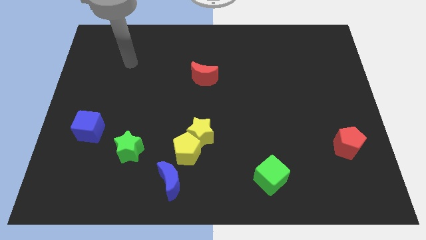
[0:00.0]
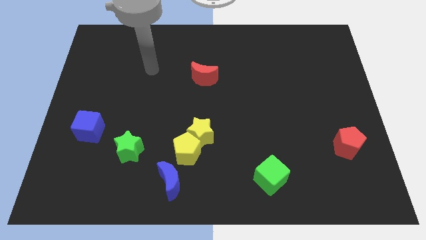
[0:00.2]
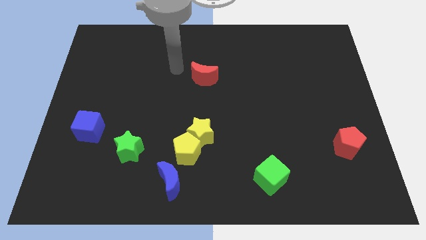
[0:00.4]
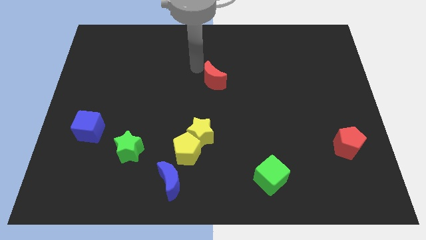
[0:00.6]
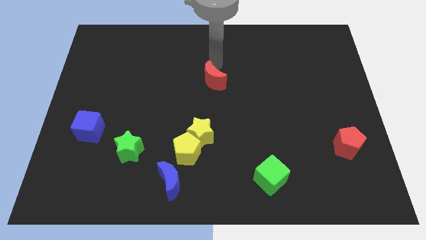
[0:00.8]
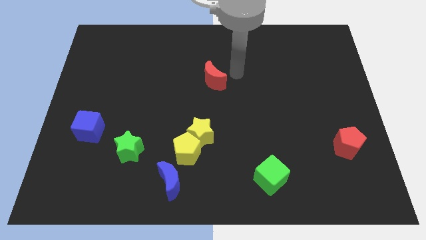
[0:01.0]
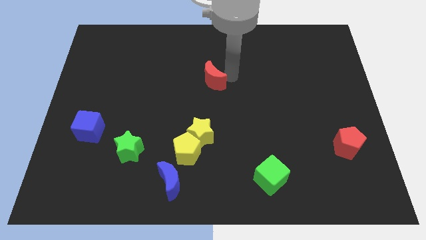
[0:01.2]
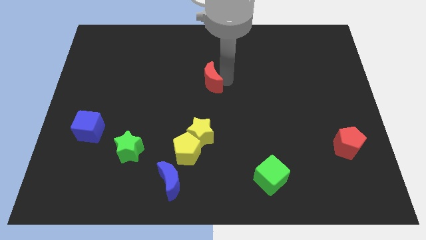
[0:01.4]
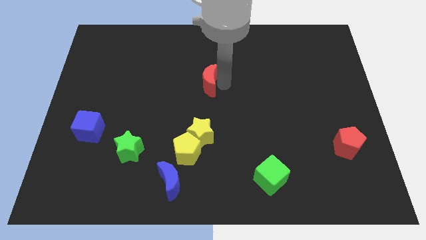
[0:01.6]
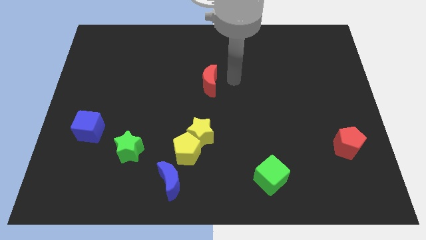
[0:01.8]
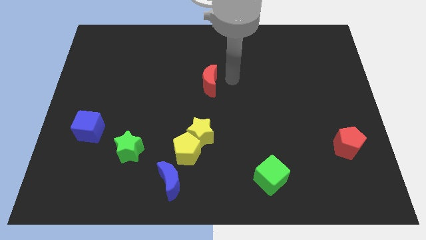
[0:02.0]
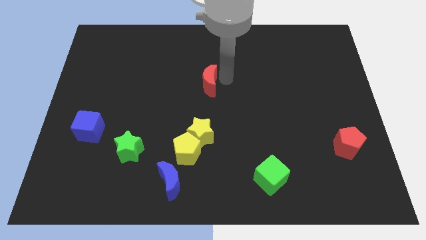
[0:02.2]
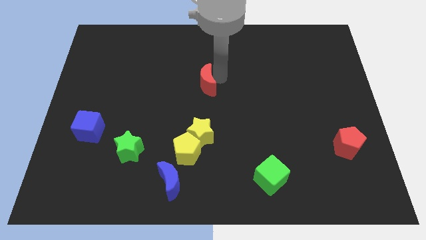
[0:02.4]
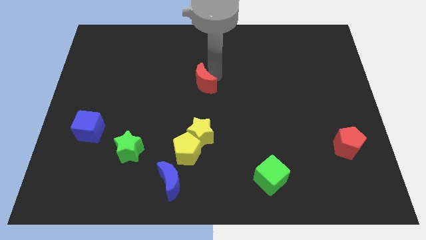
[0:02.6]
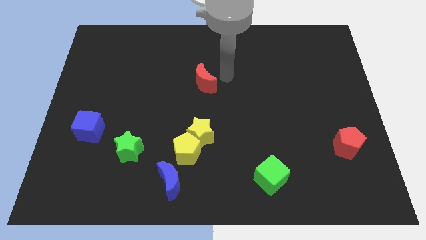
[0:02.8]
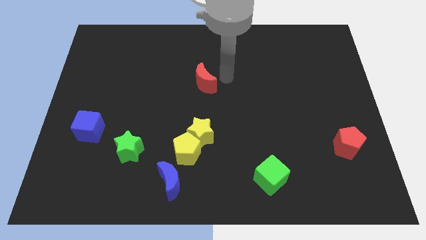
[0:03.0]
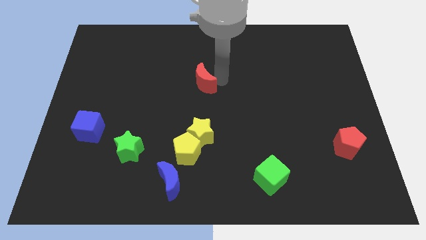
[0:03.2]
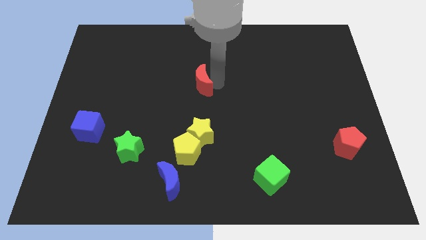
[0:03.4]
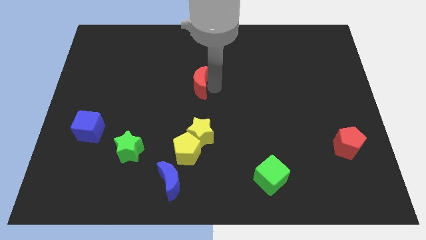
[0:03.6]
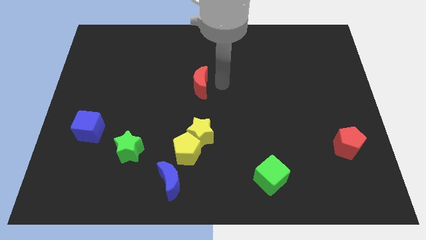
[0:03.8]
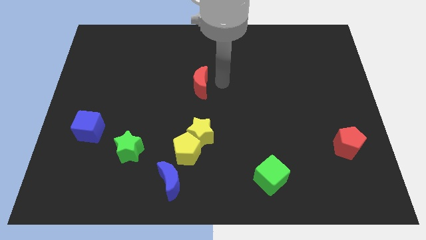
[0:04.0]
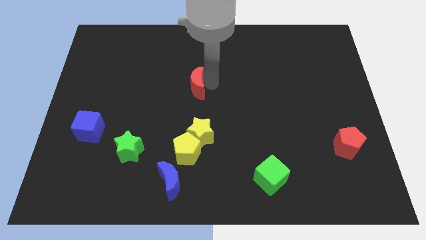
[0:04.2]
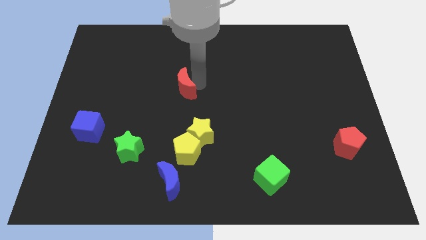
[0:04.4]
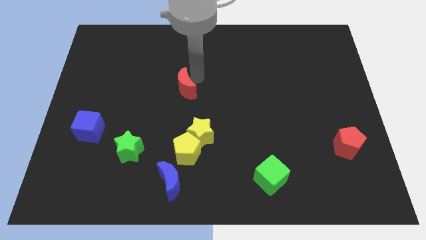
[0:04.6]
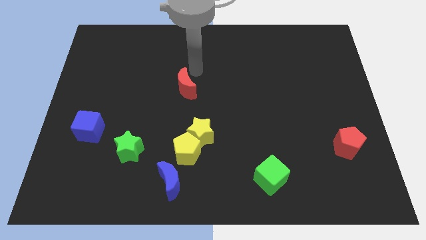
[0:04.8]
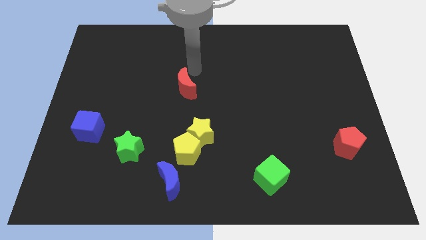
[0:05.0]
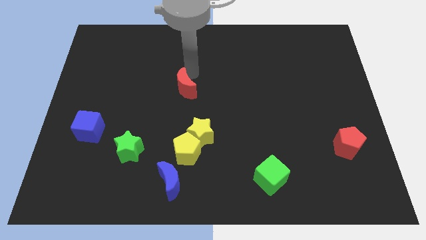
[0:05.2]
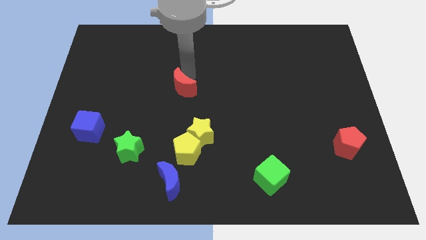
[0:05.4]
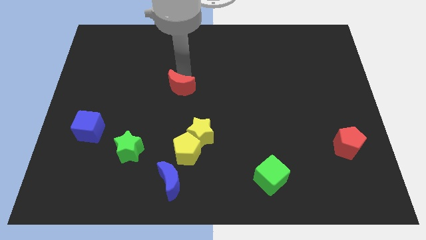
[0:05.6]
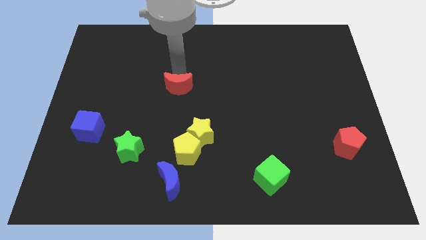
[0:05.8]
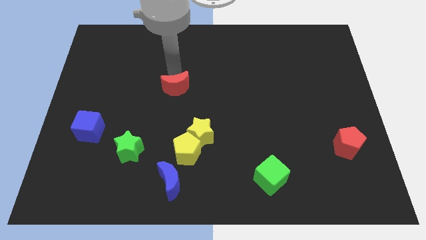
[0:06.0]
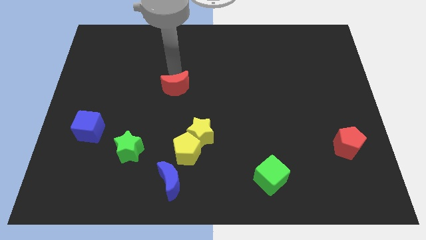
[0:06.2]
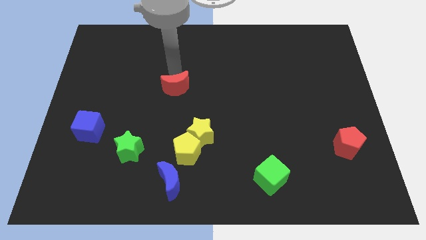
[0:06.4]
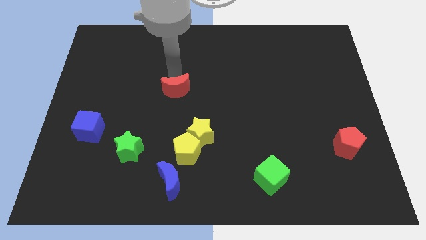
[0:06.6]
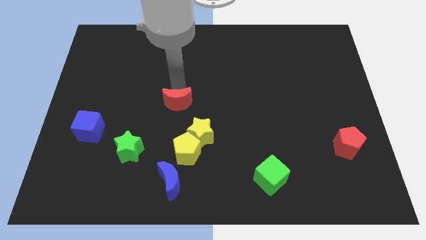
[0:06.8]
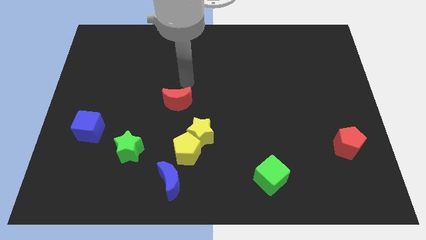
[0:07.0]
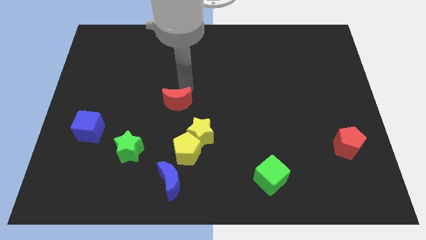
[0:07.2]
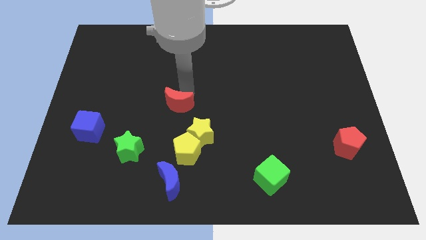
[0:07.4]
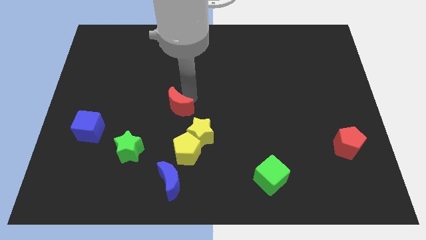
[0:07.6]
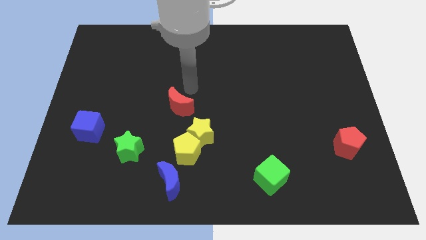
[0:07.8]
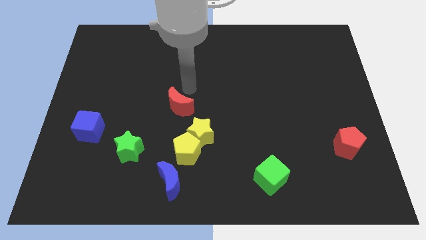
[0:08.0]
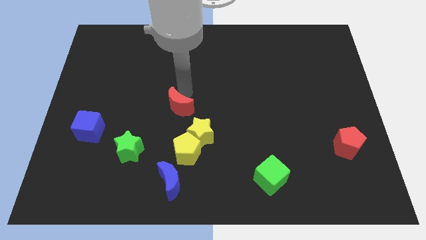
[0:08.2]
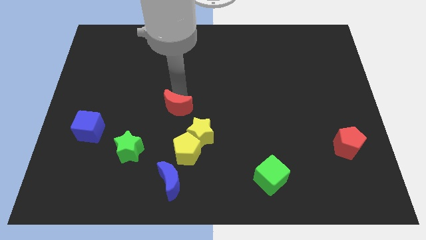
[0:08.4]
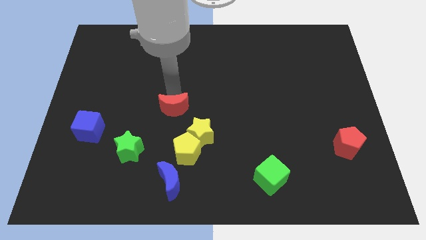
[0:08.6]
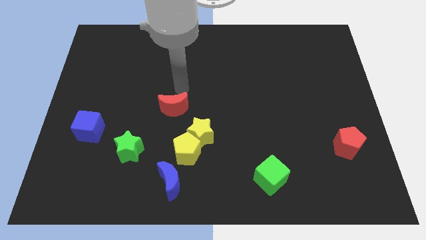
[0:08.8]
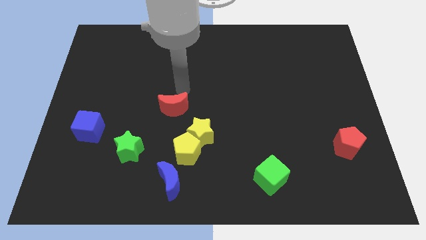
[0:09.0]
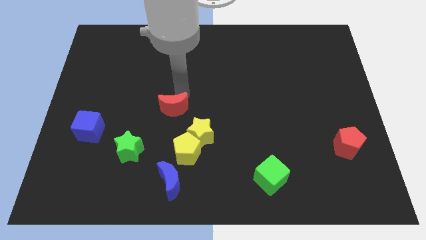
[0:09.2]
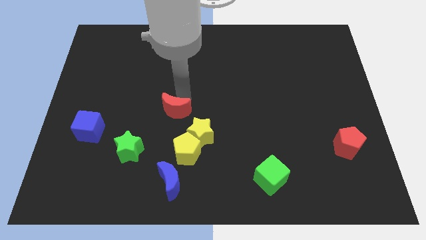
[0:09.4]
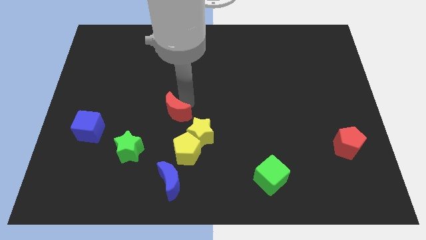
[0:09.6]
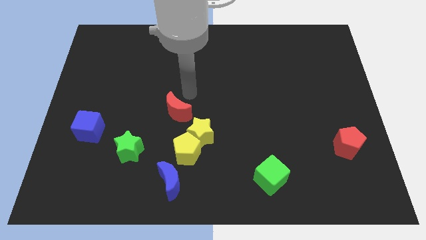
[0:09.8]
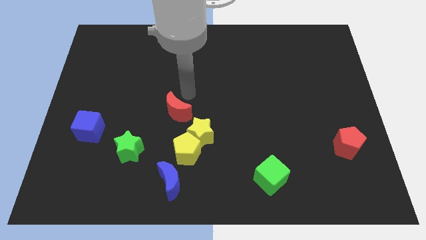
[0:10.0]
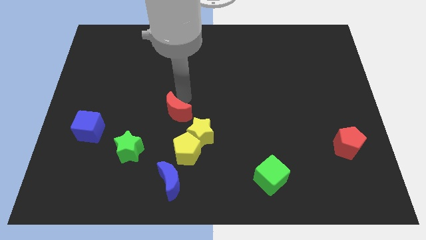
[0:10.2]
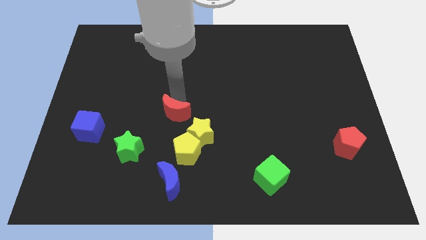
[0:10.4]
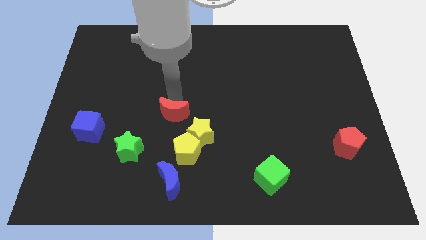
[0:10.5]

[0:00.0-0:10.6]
slide the red moon diagonally up and to the left of the yellow pentagon

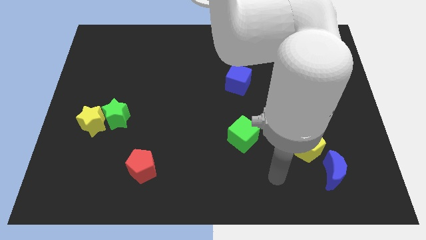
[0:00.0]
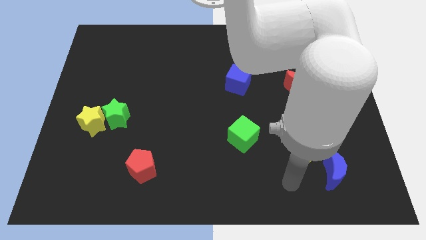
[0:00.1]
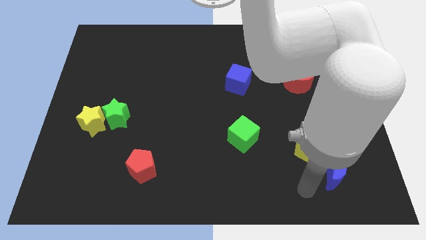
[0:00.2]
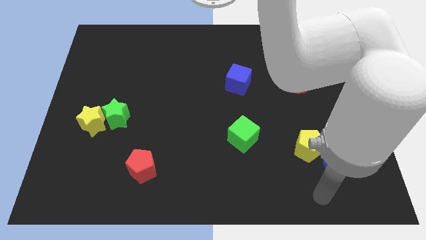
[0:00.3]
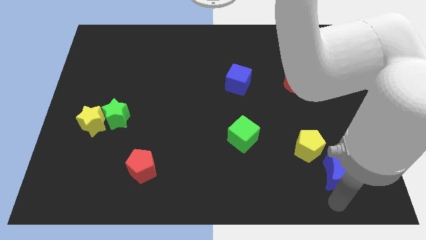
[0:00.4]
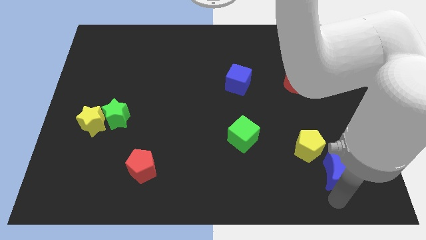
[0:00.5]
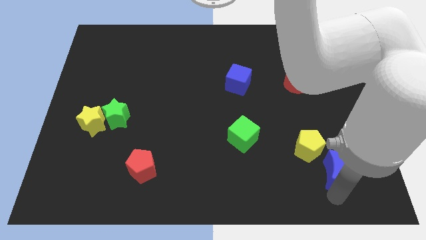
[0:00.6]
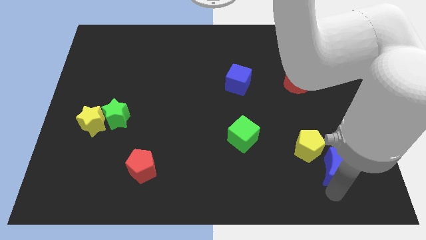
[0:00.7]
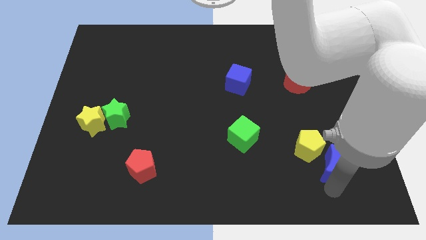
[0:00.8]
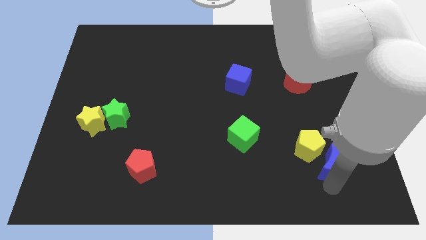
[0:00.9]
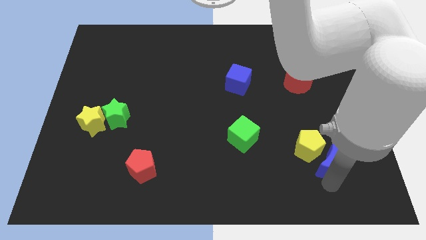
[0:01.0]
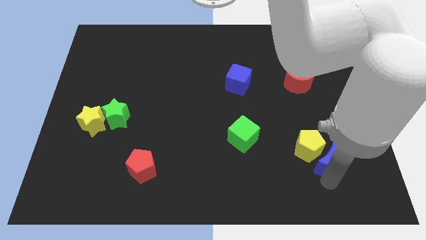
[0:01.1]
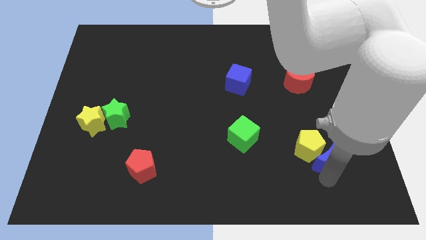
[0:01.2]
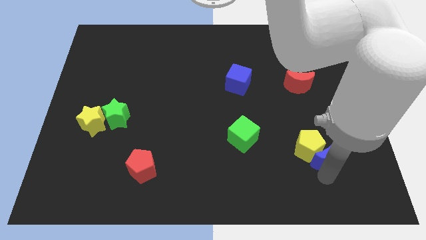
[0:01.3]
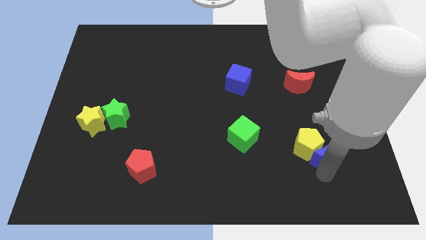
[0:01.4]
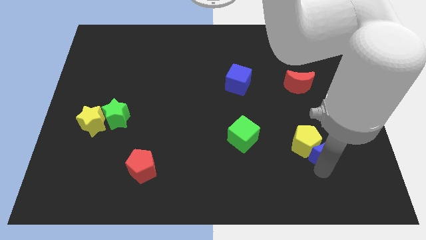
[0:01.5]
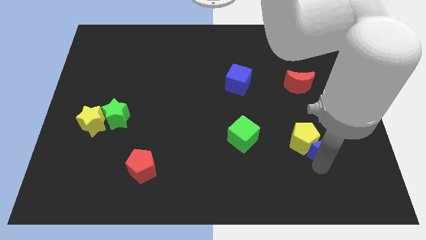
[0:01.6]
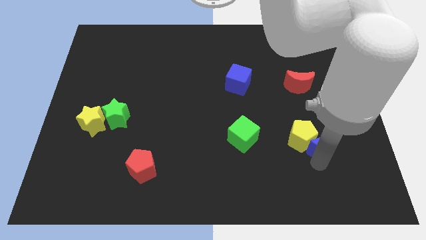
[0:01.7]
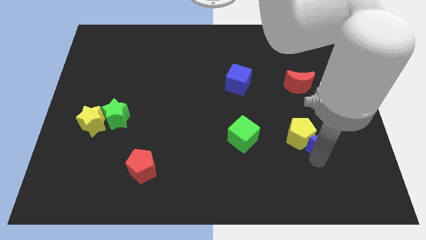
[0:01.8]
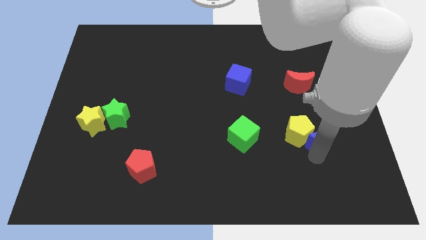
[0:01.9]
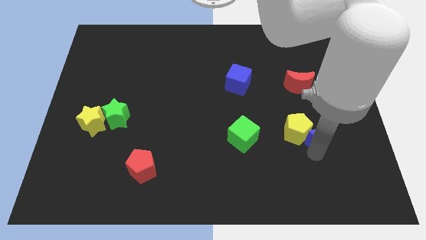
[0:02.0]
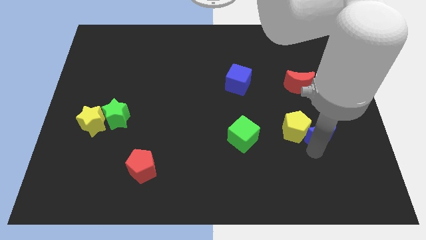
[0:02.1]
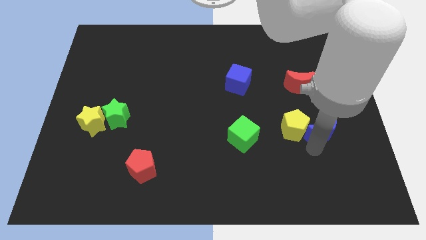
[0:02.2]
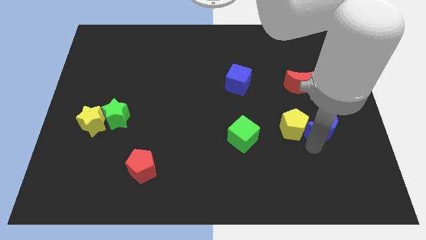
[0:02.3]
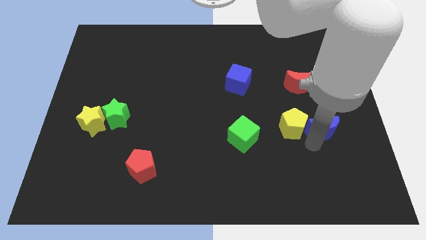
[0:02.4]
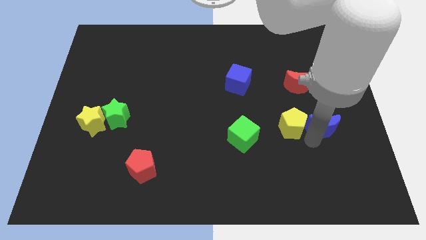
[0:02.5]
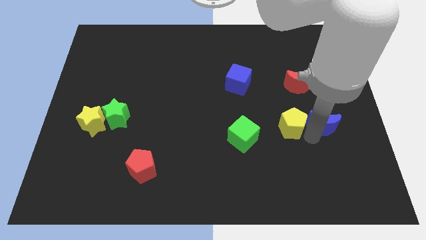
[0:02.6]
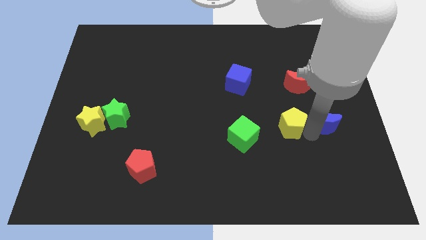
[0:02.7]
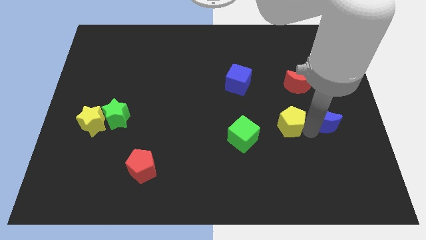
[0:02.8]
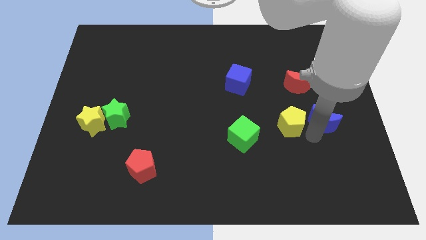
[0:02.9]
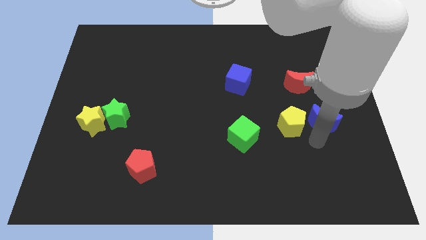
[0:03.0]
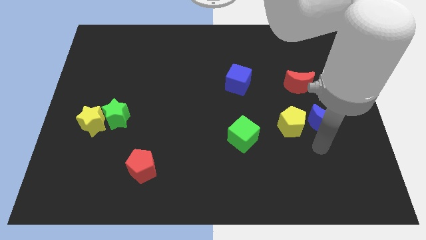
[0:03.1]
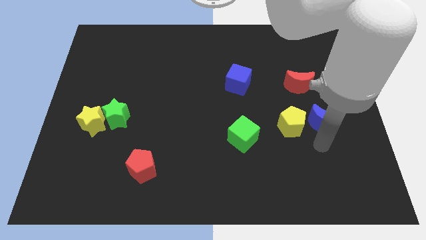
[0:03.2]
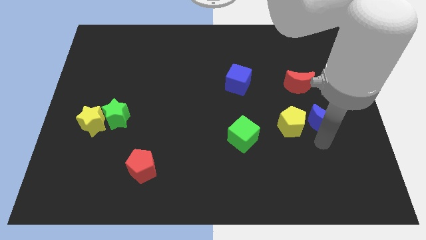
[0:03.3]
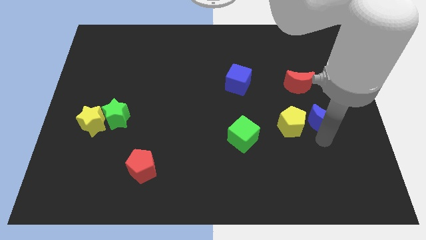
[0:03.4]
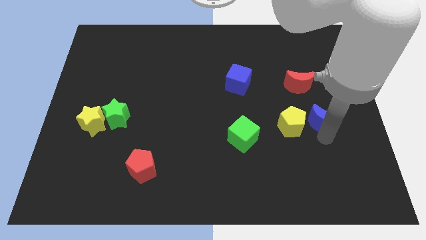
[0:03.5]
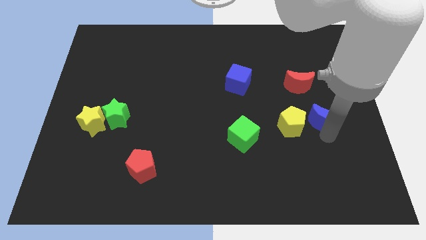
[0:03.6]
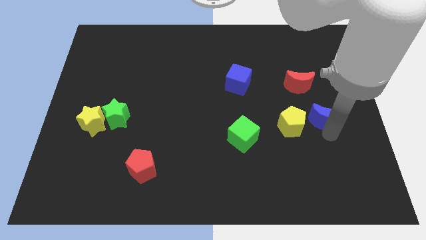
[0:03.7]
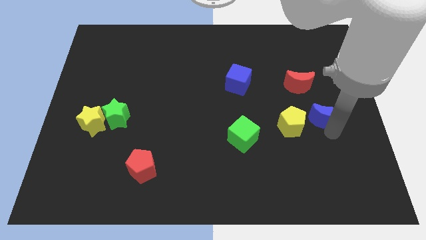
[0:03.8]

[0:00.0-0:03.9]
move the blue moon to the bottom right side of the red moon
